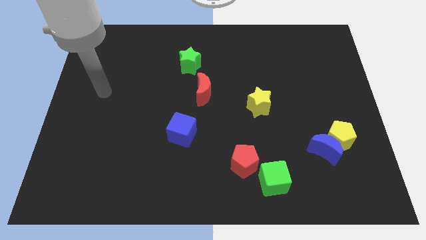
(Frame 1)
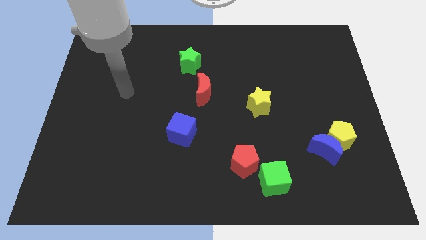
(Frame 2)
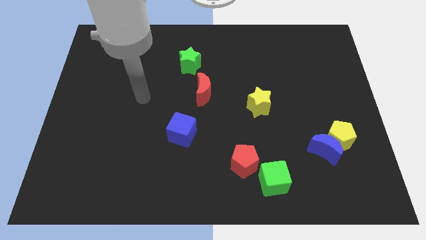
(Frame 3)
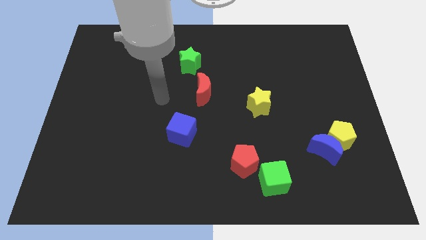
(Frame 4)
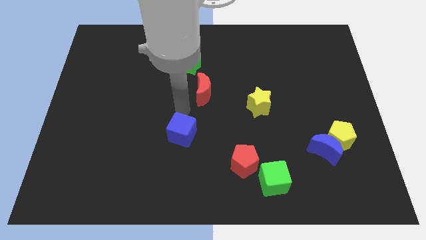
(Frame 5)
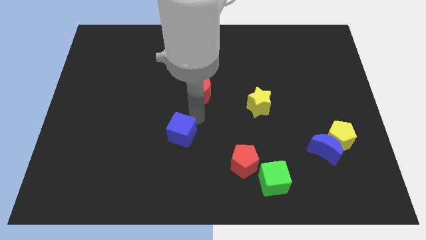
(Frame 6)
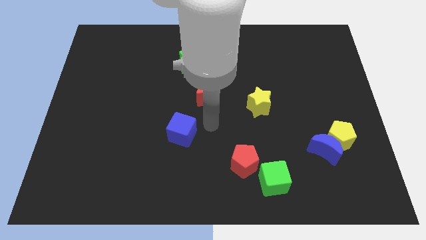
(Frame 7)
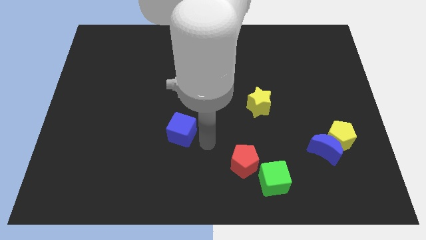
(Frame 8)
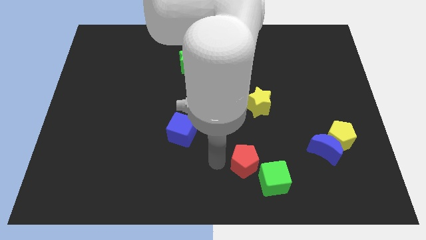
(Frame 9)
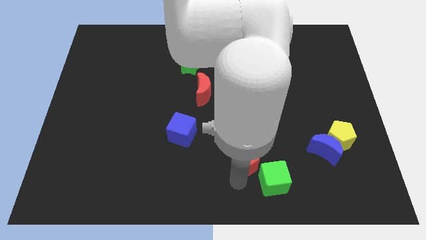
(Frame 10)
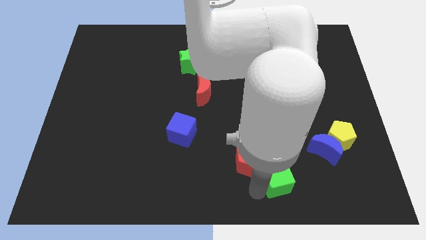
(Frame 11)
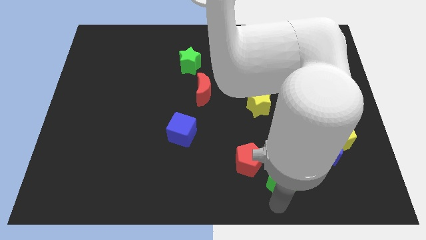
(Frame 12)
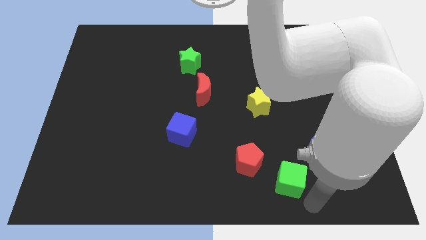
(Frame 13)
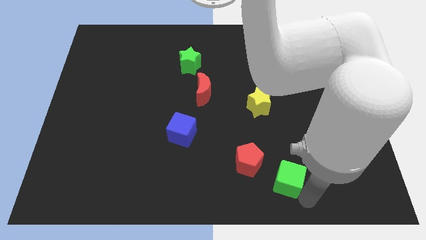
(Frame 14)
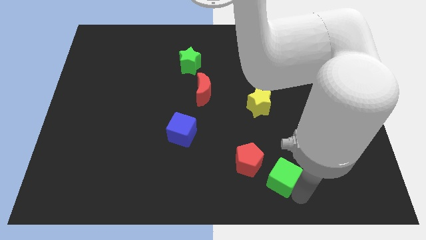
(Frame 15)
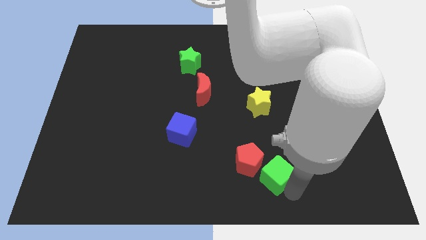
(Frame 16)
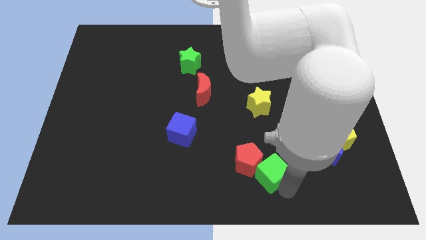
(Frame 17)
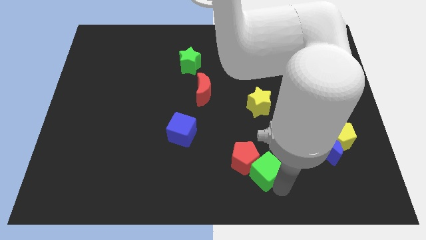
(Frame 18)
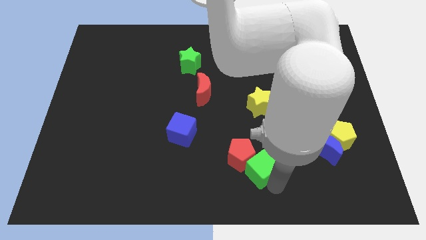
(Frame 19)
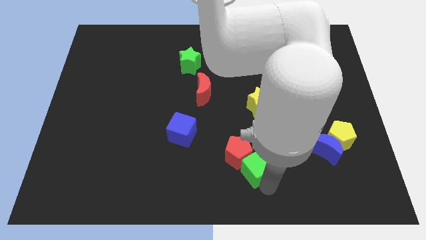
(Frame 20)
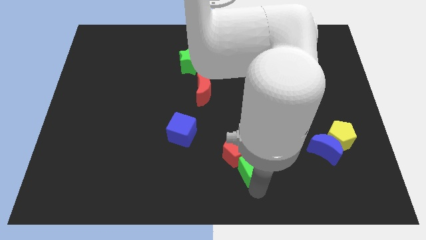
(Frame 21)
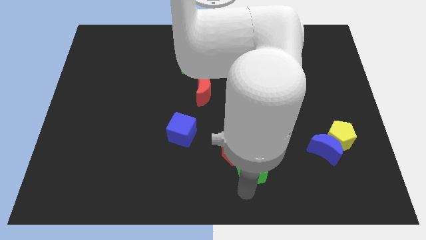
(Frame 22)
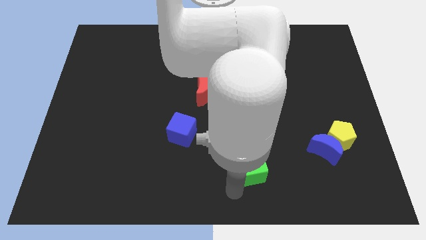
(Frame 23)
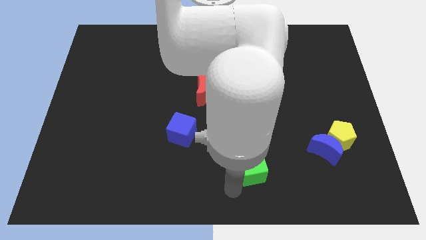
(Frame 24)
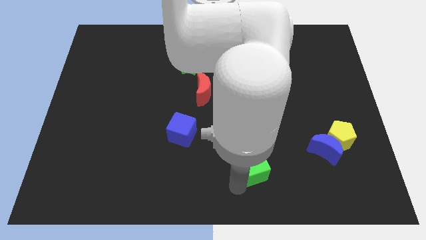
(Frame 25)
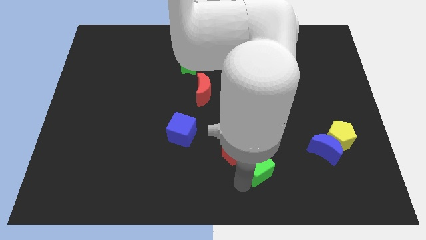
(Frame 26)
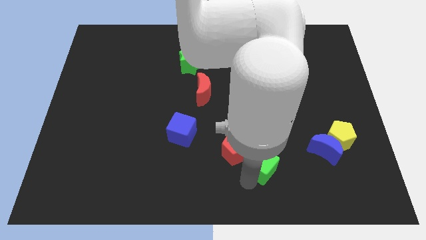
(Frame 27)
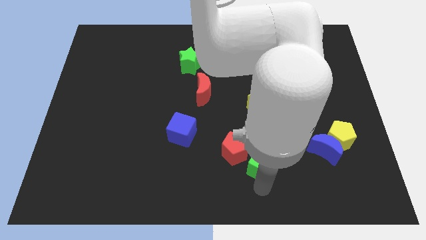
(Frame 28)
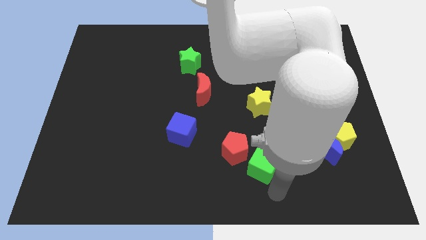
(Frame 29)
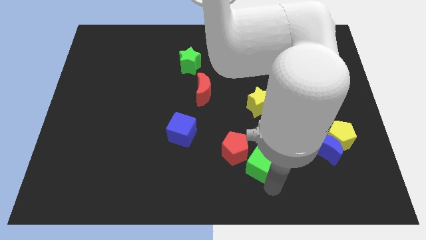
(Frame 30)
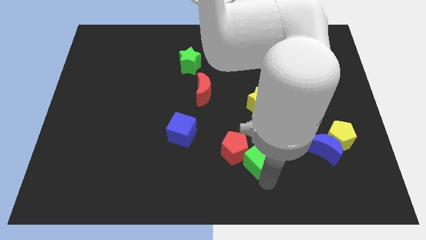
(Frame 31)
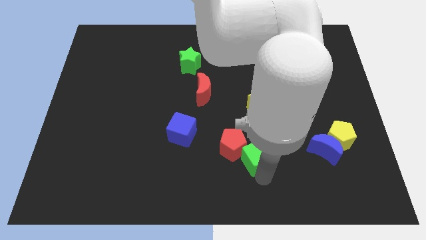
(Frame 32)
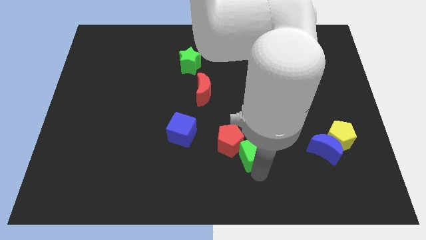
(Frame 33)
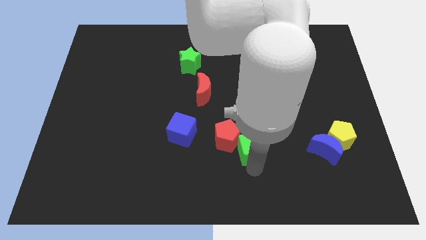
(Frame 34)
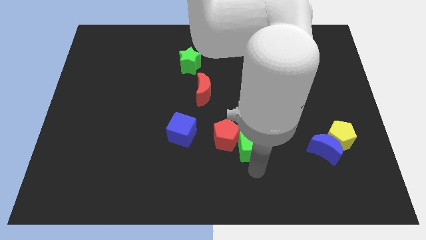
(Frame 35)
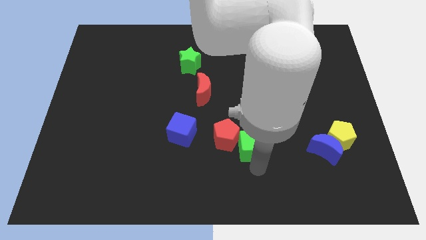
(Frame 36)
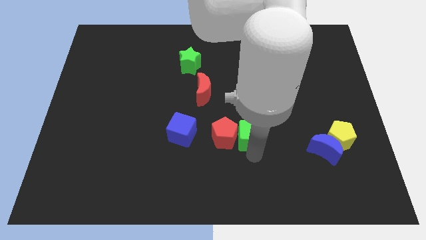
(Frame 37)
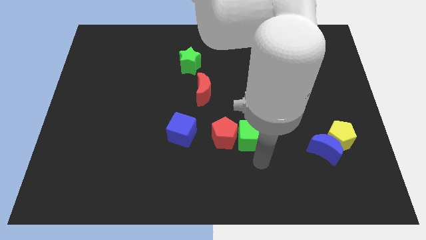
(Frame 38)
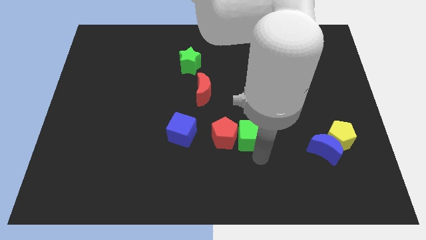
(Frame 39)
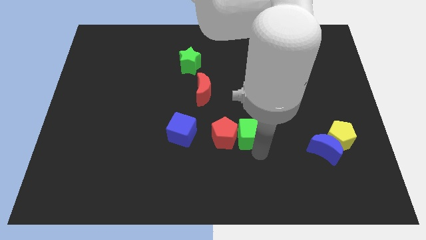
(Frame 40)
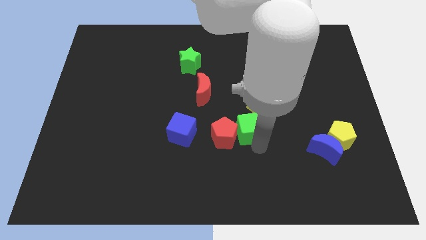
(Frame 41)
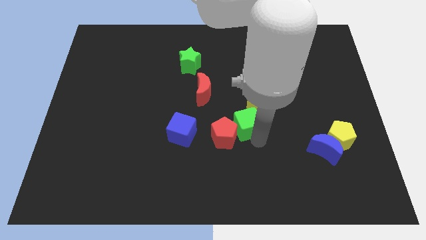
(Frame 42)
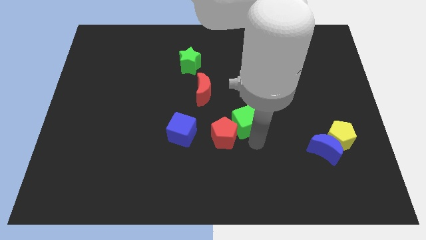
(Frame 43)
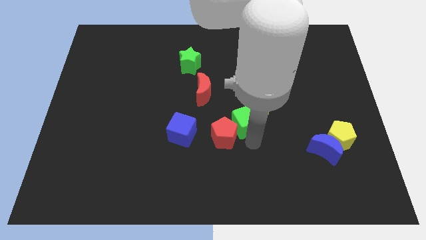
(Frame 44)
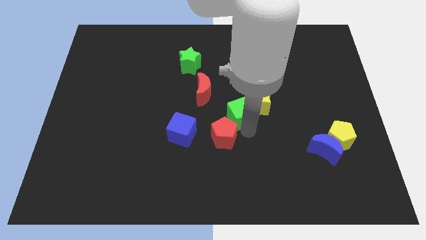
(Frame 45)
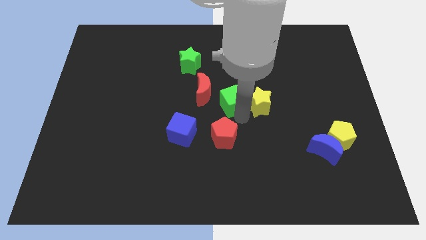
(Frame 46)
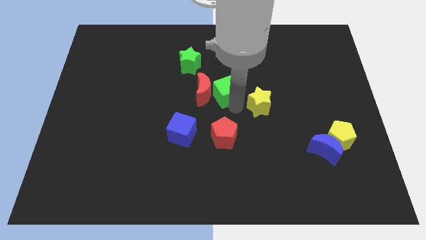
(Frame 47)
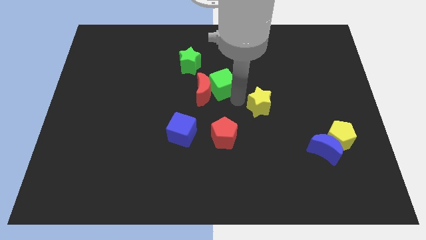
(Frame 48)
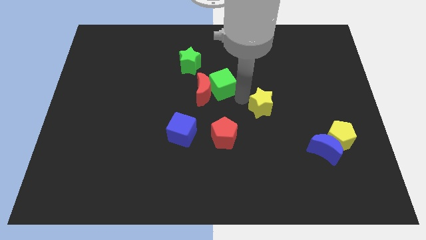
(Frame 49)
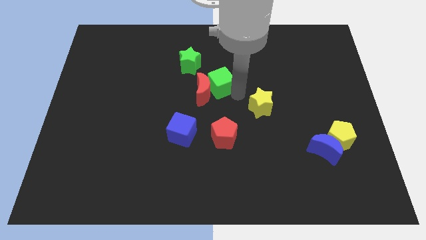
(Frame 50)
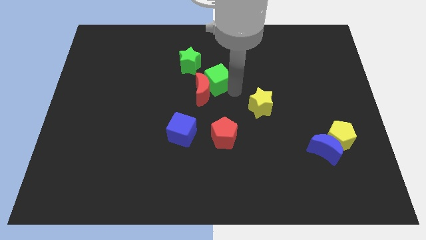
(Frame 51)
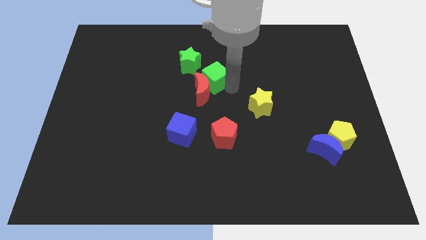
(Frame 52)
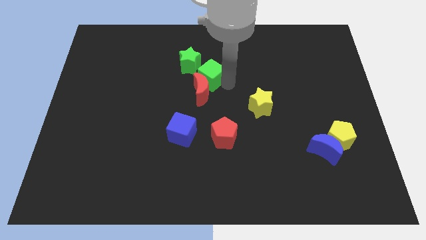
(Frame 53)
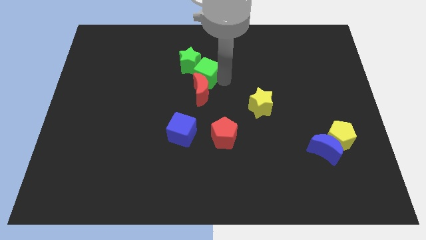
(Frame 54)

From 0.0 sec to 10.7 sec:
slide the green cube to the green star

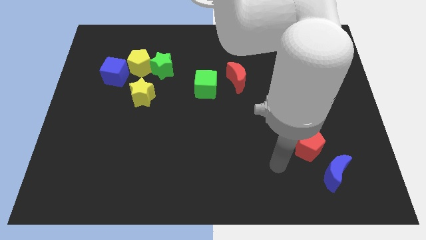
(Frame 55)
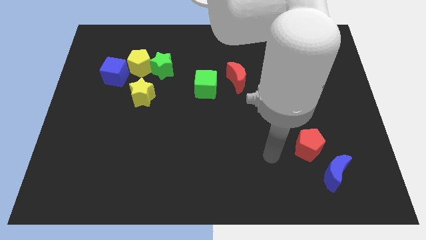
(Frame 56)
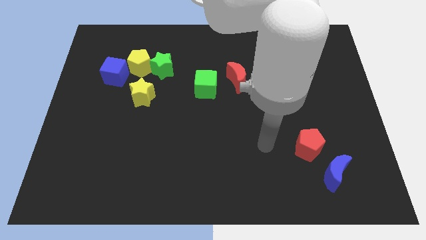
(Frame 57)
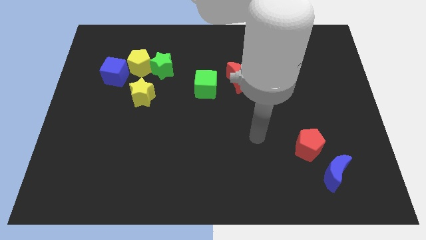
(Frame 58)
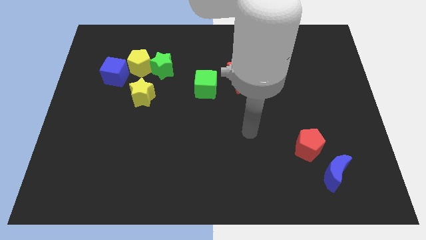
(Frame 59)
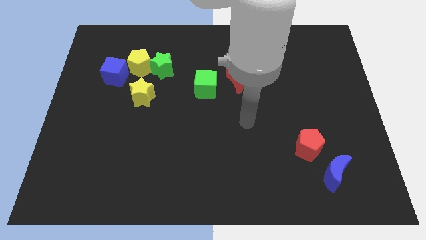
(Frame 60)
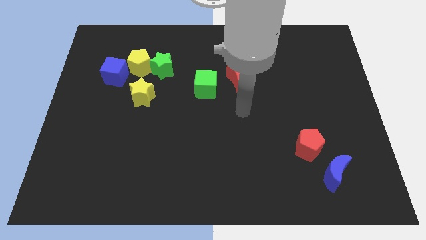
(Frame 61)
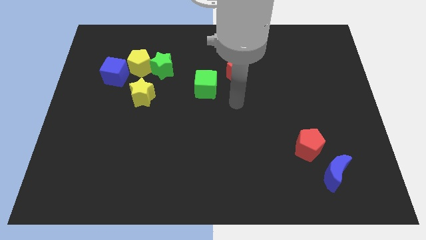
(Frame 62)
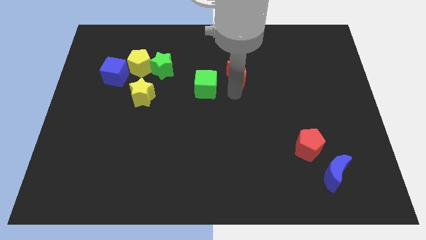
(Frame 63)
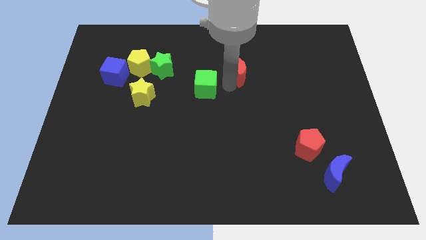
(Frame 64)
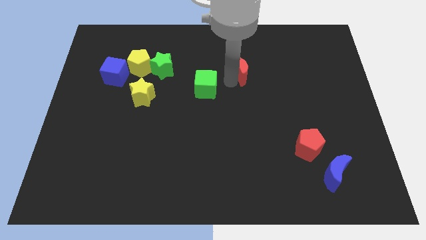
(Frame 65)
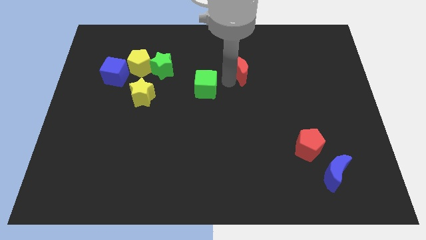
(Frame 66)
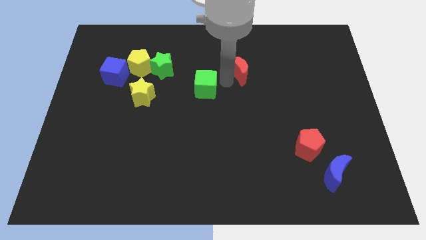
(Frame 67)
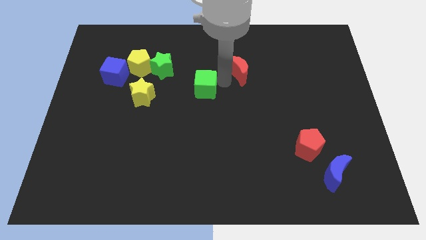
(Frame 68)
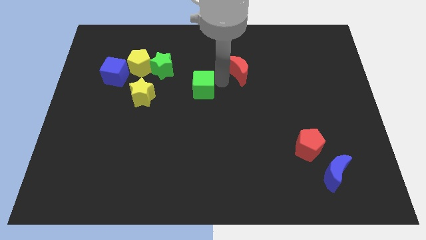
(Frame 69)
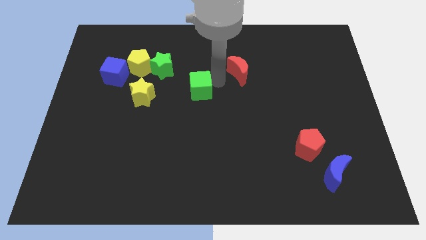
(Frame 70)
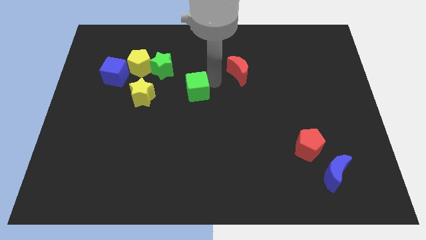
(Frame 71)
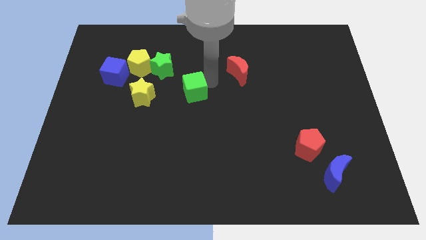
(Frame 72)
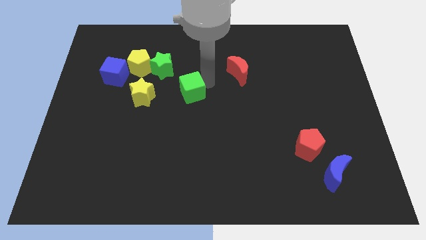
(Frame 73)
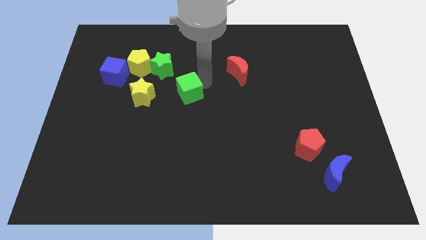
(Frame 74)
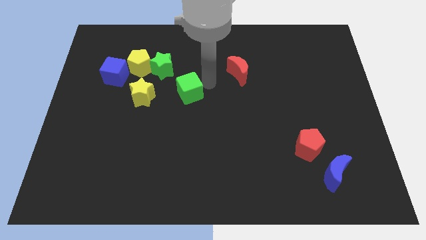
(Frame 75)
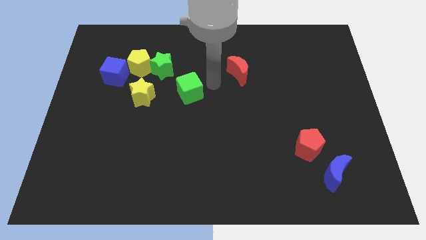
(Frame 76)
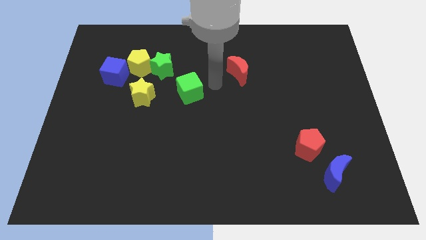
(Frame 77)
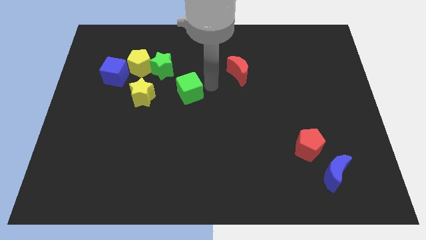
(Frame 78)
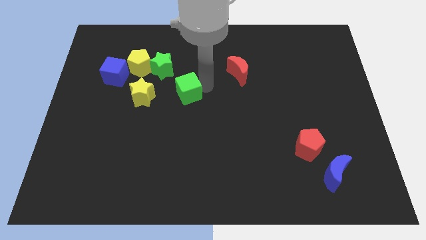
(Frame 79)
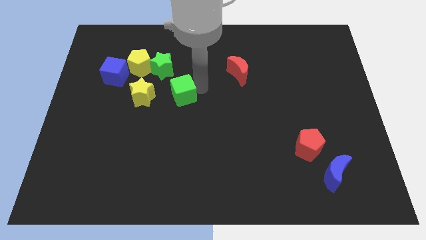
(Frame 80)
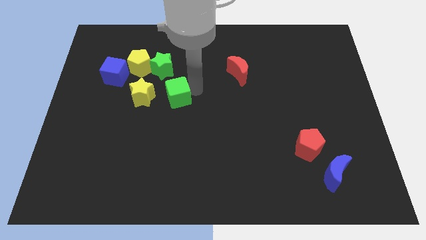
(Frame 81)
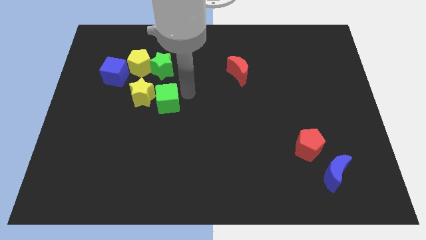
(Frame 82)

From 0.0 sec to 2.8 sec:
push the green cube to the yellow star
